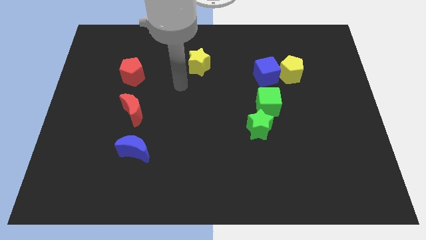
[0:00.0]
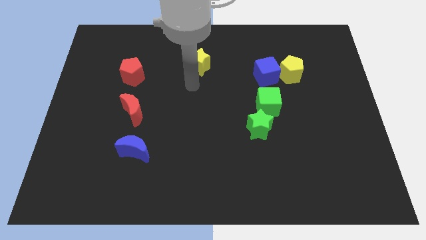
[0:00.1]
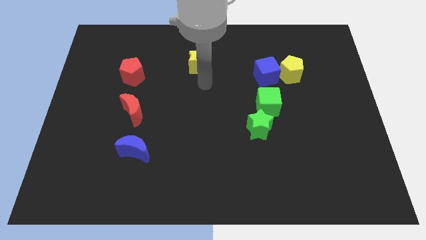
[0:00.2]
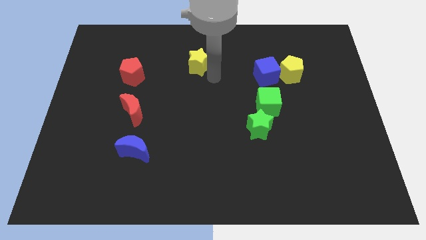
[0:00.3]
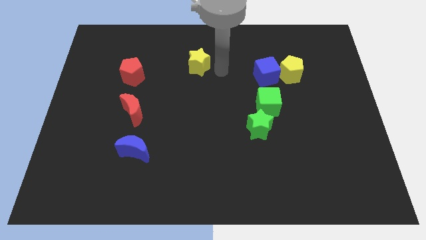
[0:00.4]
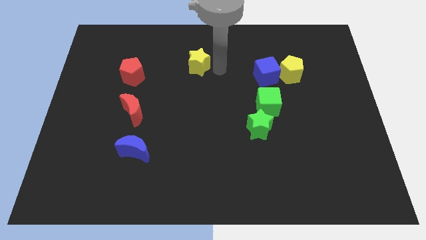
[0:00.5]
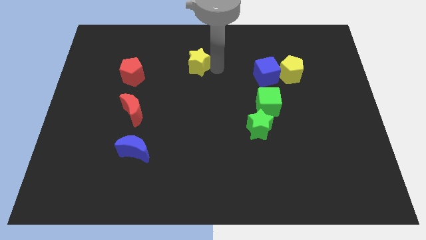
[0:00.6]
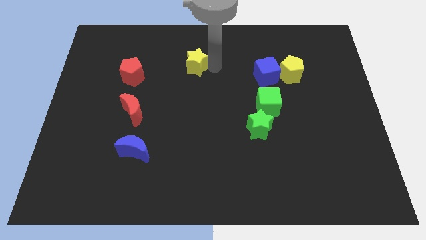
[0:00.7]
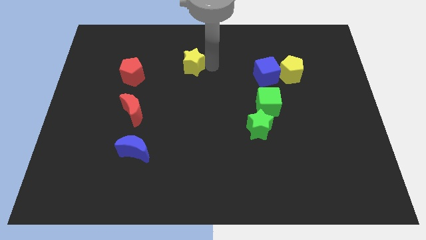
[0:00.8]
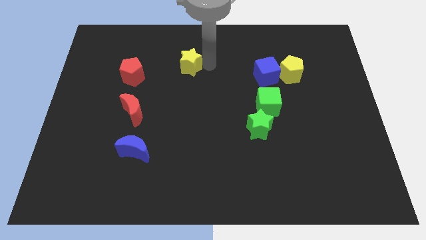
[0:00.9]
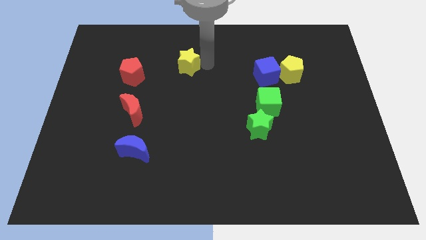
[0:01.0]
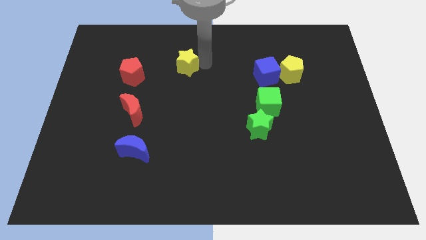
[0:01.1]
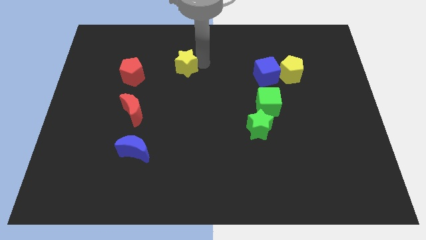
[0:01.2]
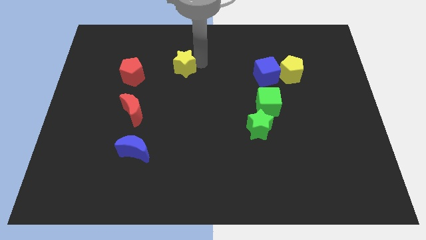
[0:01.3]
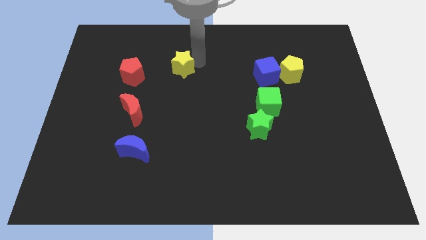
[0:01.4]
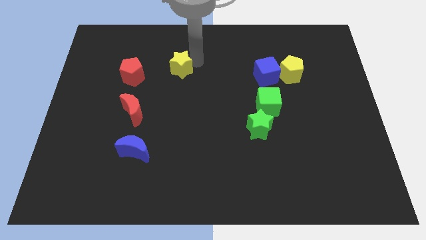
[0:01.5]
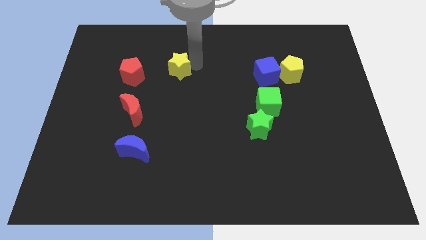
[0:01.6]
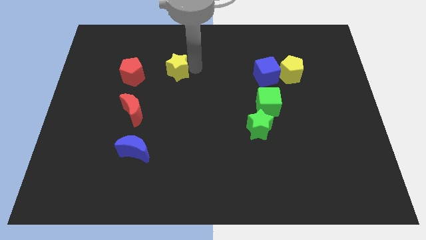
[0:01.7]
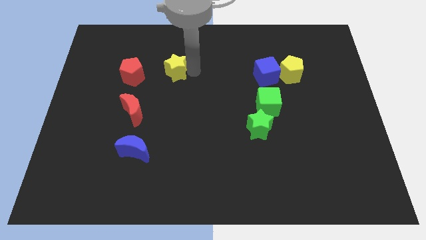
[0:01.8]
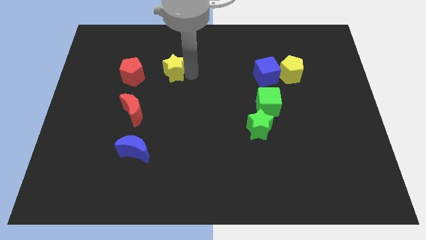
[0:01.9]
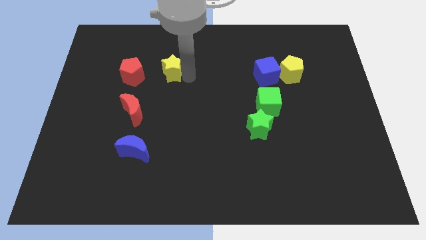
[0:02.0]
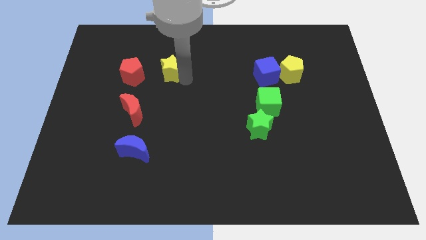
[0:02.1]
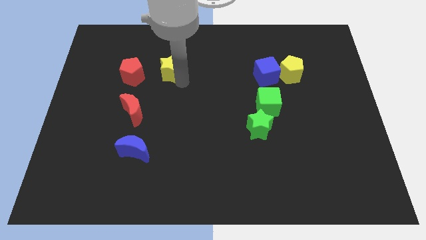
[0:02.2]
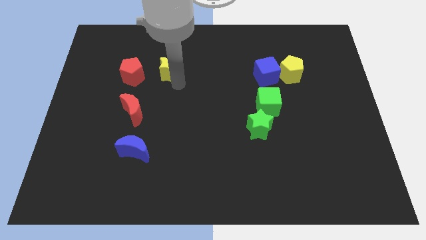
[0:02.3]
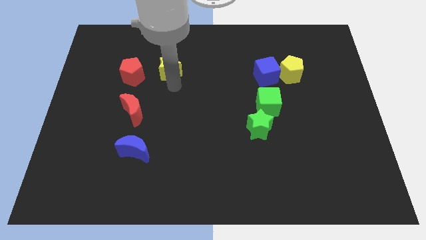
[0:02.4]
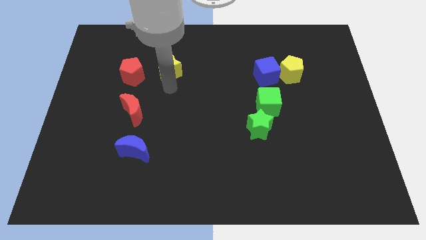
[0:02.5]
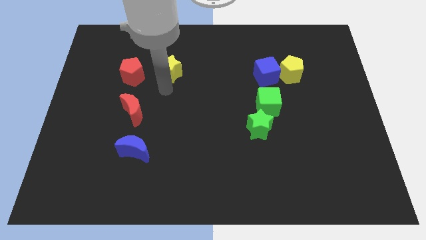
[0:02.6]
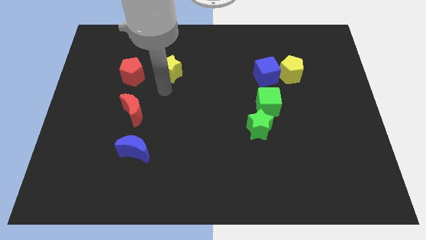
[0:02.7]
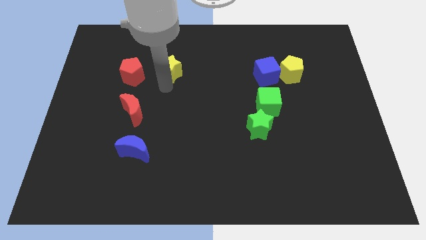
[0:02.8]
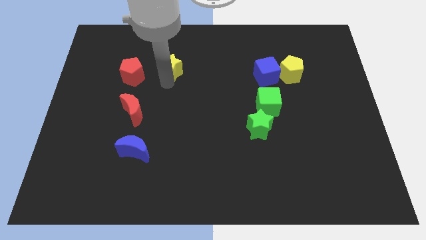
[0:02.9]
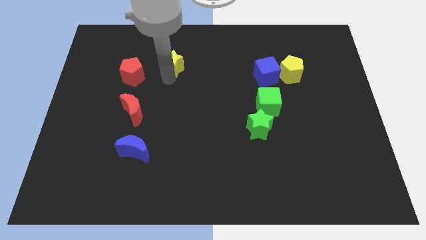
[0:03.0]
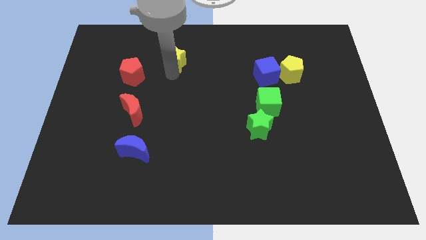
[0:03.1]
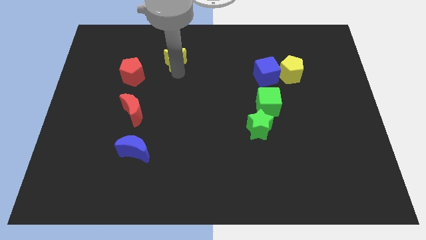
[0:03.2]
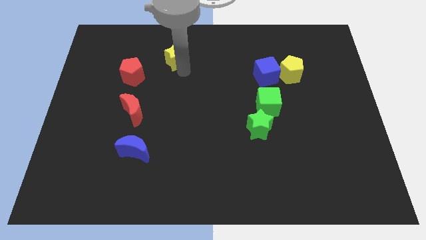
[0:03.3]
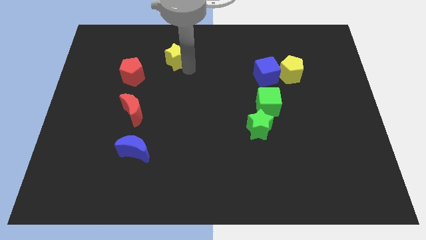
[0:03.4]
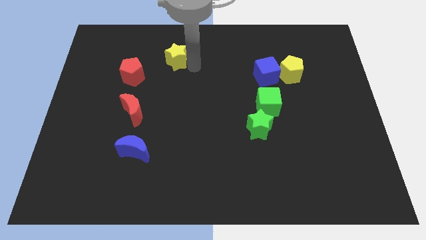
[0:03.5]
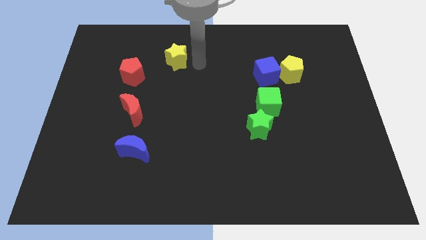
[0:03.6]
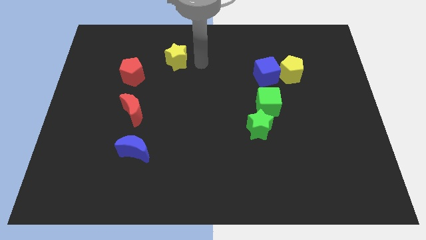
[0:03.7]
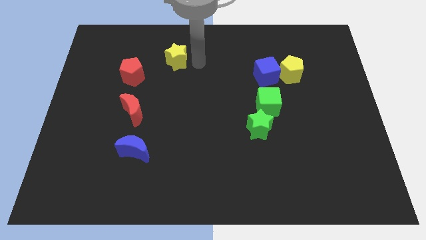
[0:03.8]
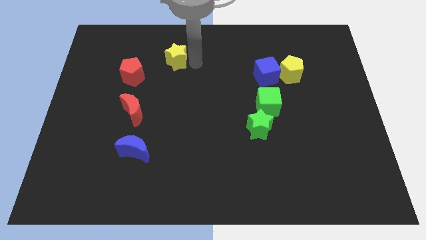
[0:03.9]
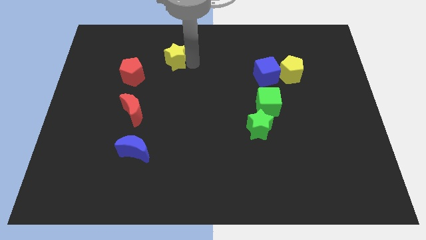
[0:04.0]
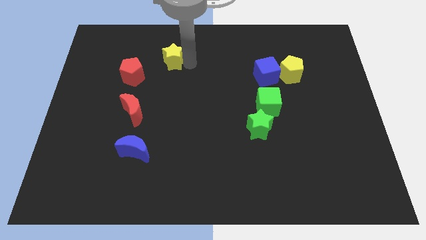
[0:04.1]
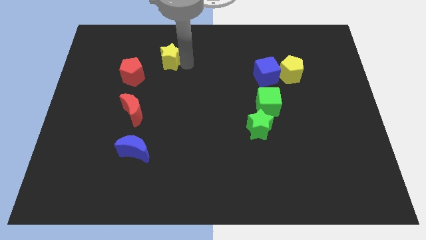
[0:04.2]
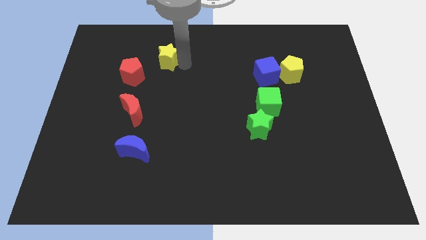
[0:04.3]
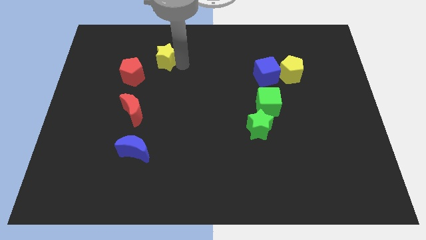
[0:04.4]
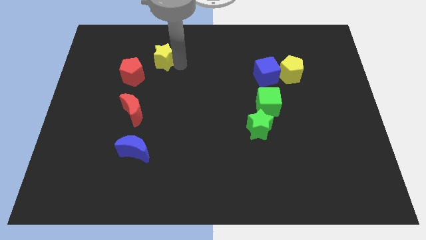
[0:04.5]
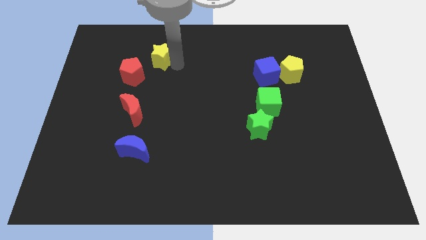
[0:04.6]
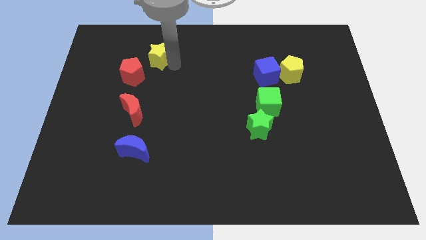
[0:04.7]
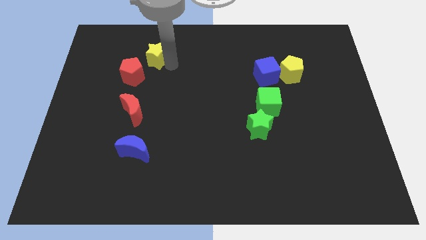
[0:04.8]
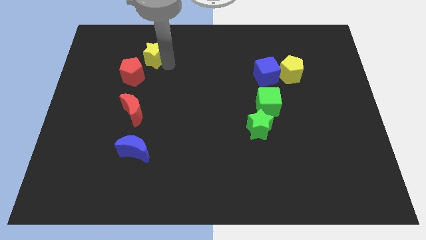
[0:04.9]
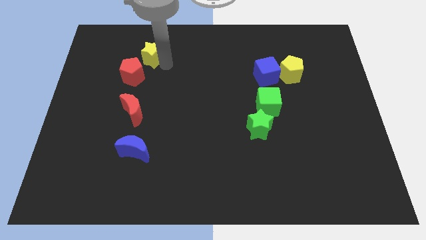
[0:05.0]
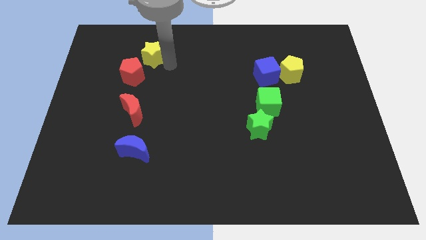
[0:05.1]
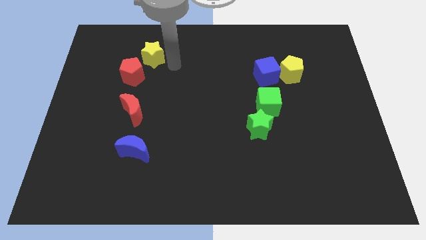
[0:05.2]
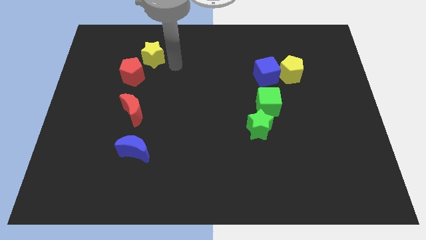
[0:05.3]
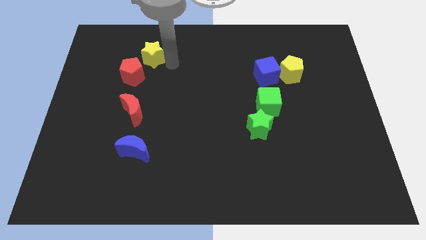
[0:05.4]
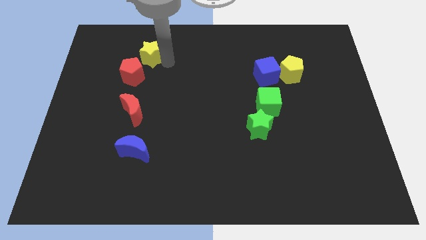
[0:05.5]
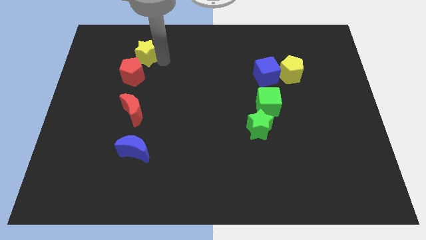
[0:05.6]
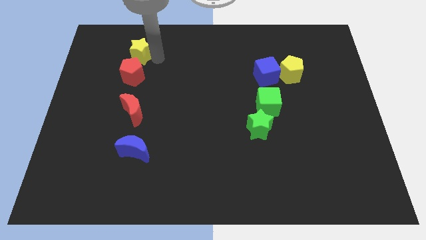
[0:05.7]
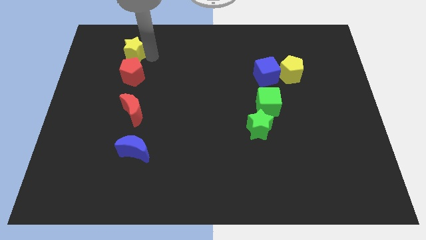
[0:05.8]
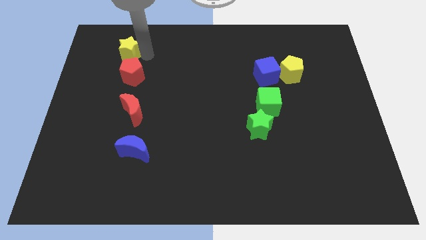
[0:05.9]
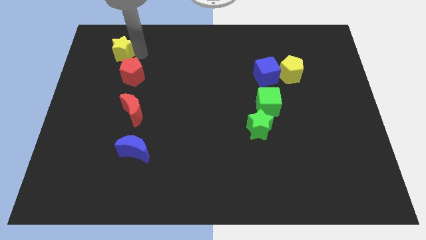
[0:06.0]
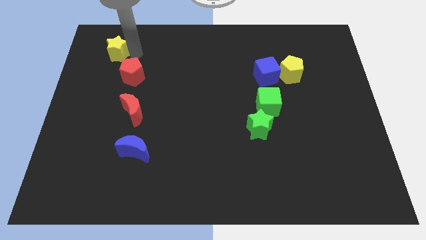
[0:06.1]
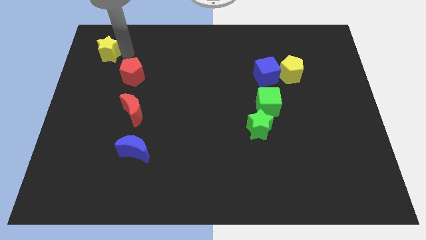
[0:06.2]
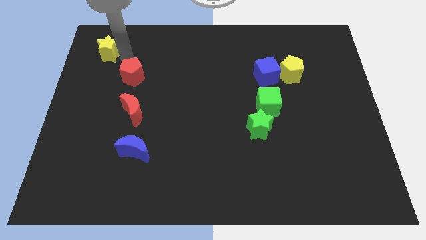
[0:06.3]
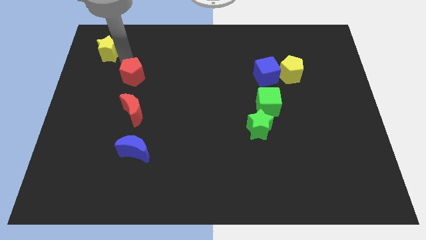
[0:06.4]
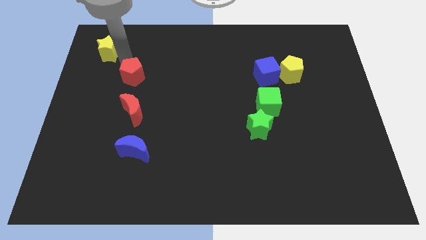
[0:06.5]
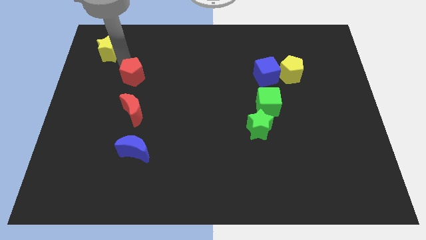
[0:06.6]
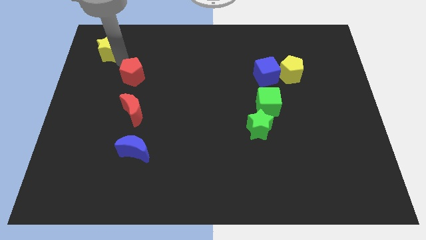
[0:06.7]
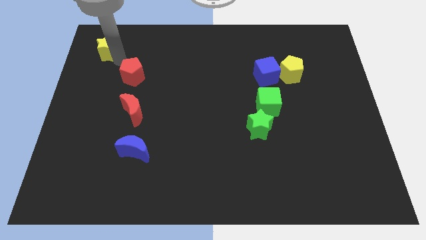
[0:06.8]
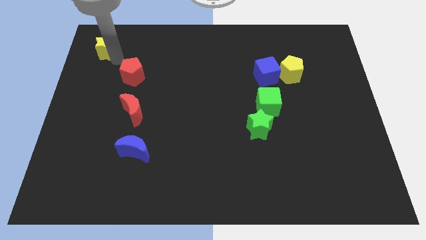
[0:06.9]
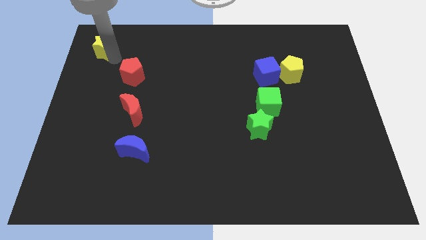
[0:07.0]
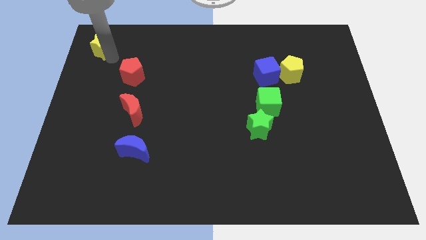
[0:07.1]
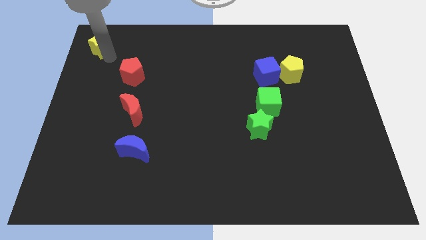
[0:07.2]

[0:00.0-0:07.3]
move the yellow star to the upper left corner
